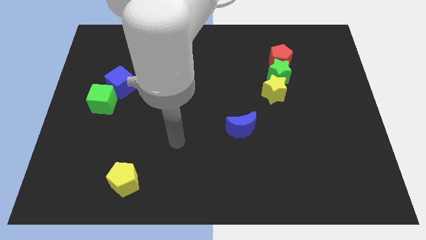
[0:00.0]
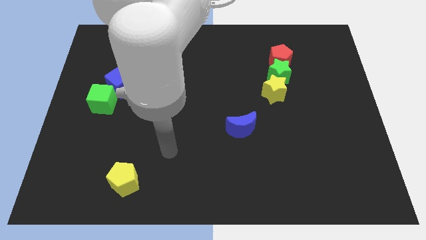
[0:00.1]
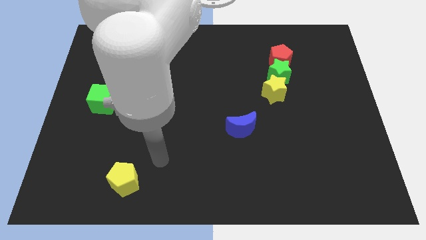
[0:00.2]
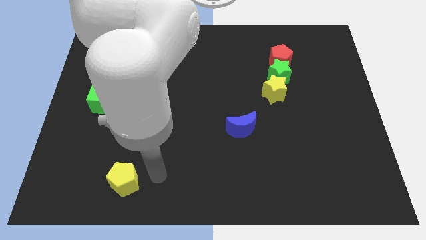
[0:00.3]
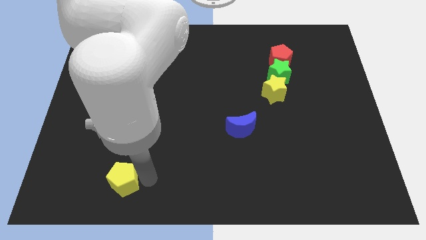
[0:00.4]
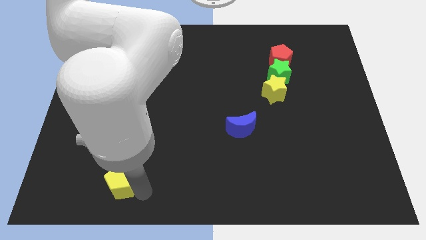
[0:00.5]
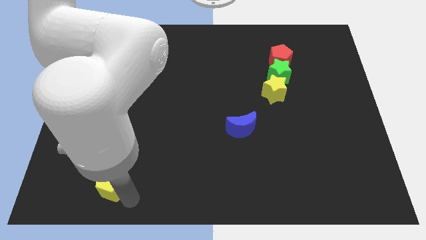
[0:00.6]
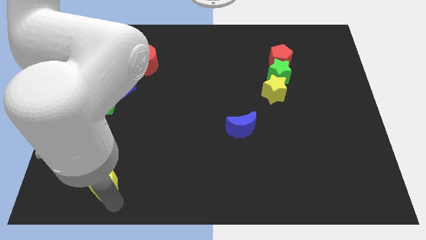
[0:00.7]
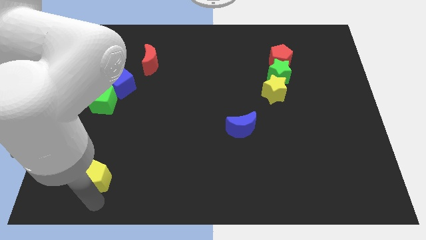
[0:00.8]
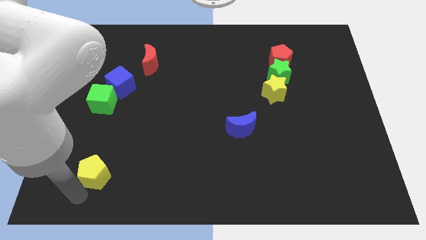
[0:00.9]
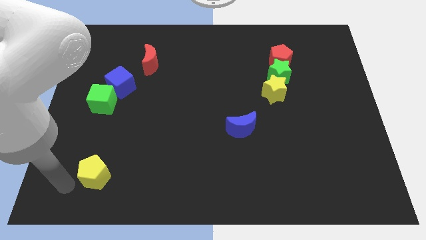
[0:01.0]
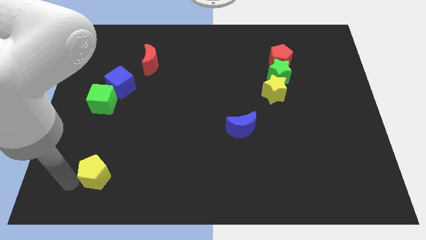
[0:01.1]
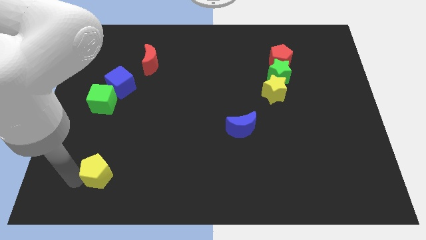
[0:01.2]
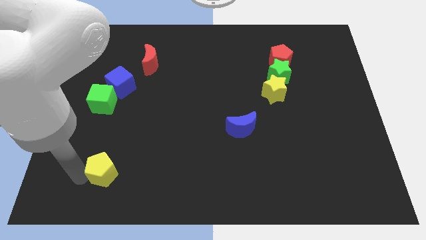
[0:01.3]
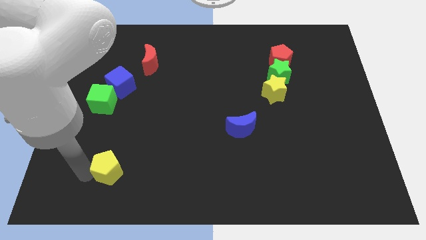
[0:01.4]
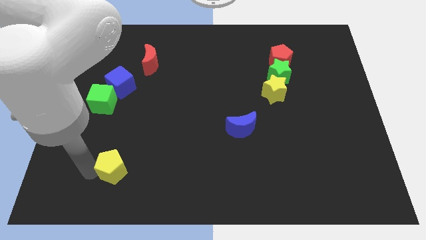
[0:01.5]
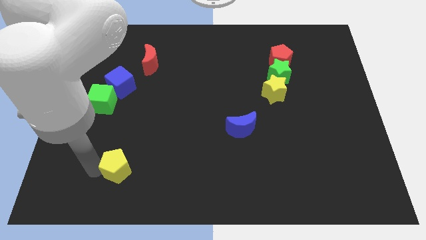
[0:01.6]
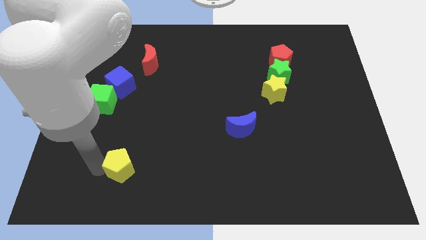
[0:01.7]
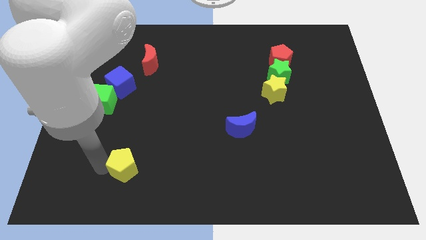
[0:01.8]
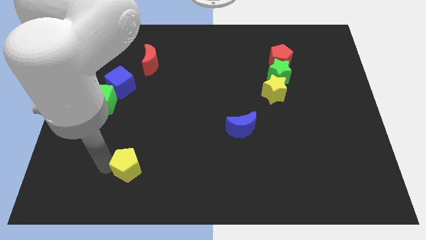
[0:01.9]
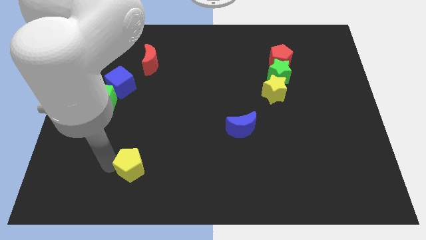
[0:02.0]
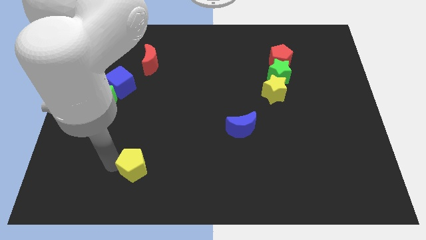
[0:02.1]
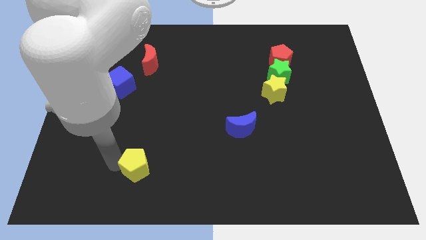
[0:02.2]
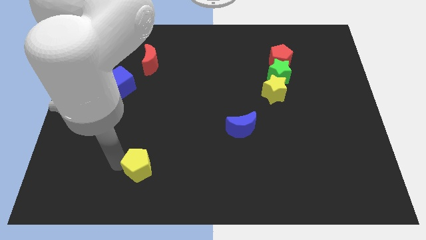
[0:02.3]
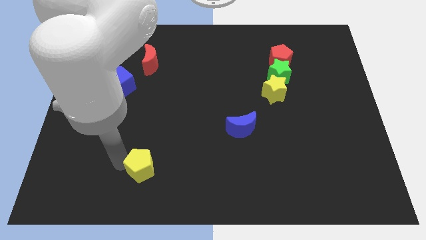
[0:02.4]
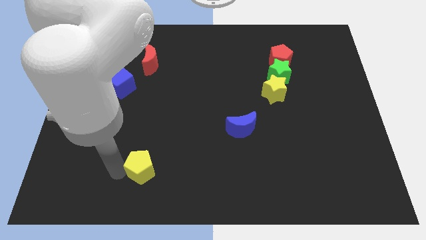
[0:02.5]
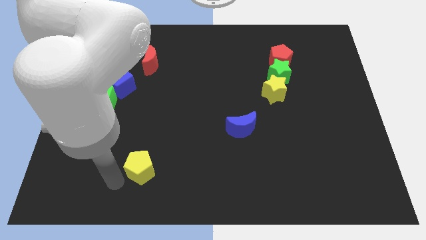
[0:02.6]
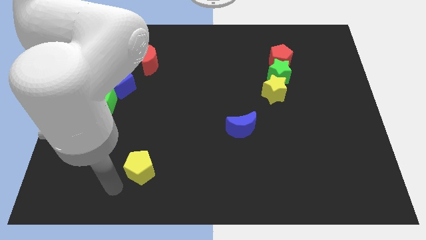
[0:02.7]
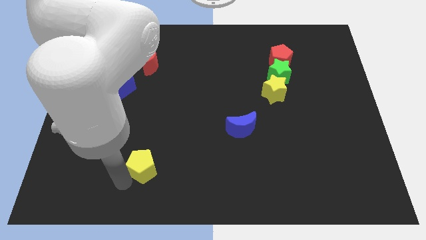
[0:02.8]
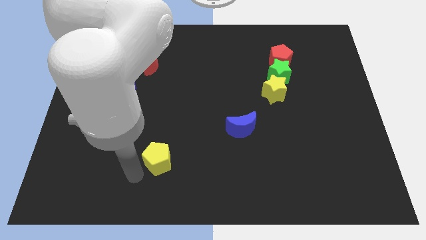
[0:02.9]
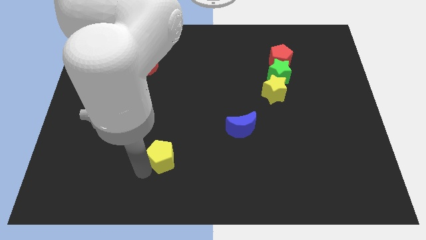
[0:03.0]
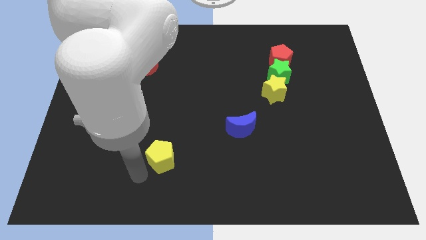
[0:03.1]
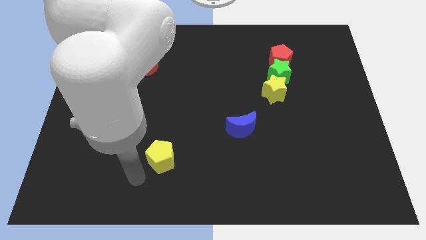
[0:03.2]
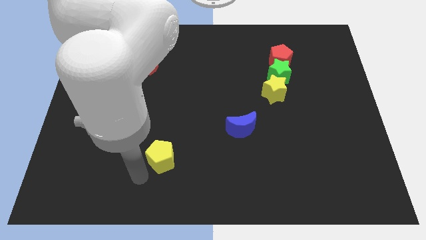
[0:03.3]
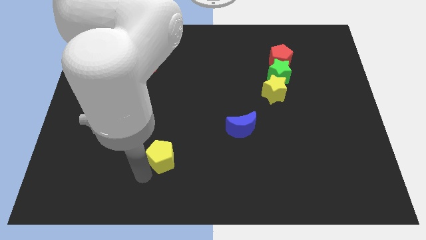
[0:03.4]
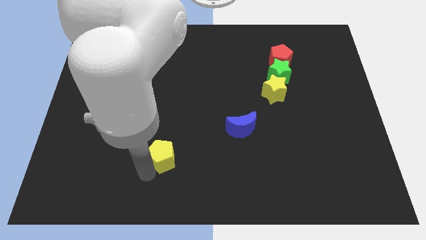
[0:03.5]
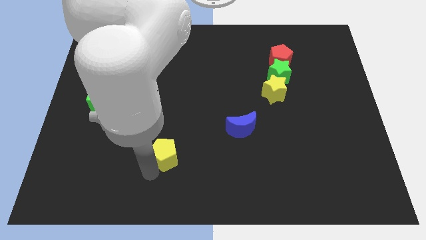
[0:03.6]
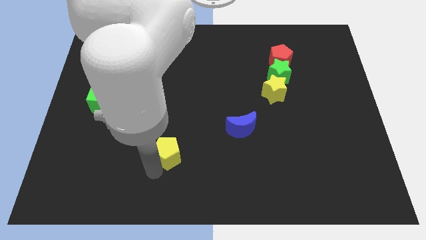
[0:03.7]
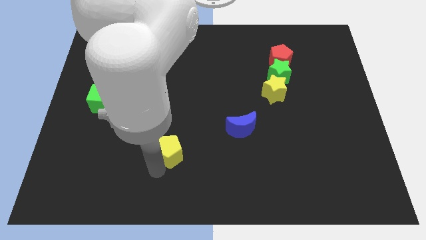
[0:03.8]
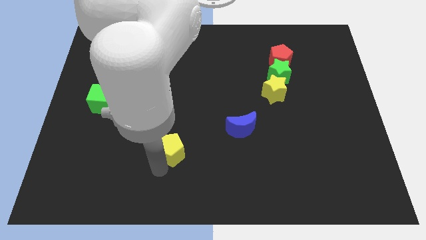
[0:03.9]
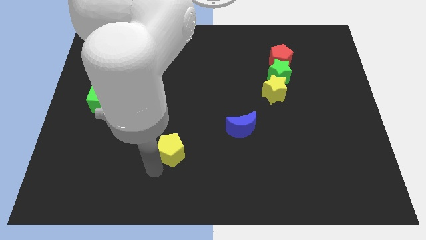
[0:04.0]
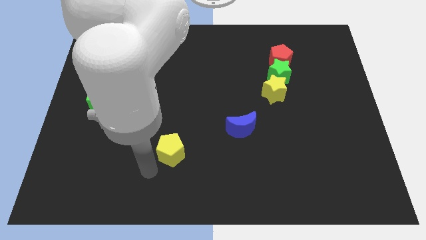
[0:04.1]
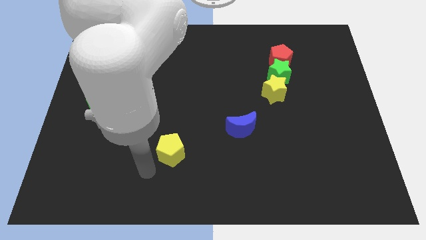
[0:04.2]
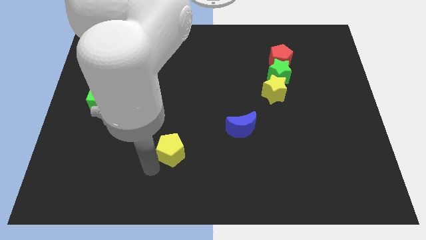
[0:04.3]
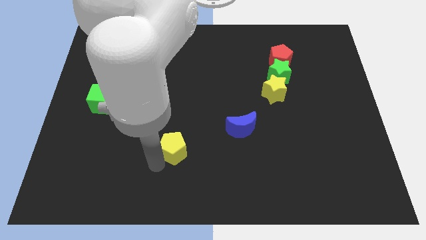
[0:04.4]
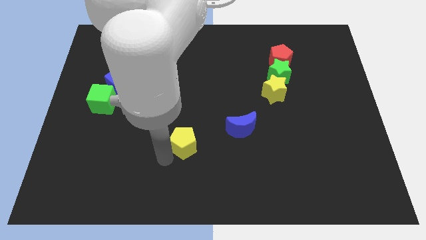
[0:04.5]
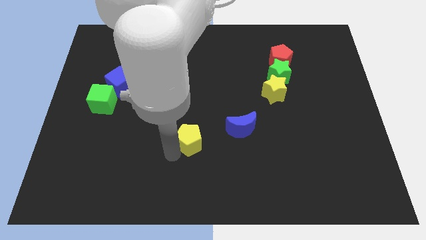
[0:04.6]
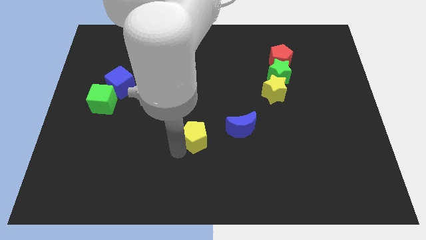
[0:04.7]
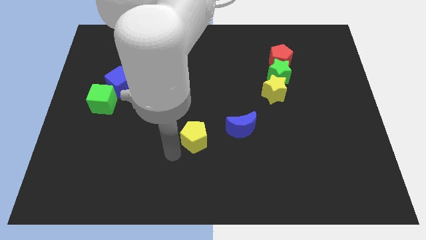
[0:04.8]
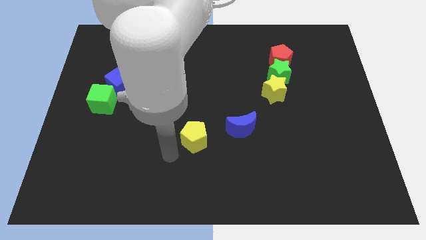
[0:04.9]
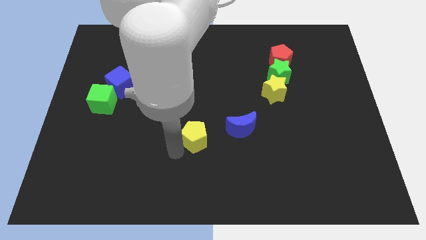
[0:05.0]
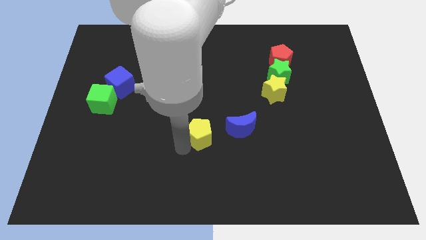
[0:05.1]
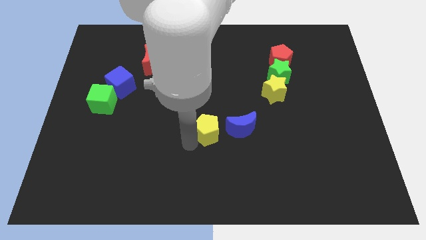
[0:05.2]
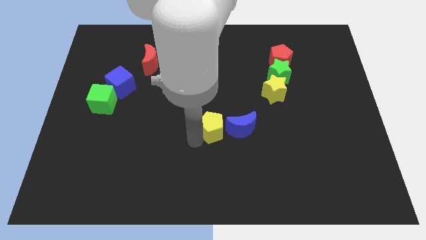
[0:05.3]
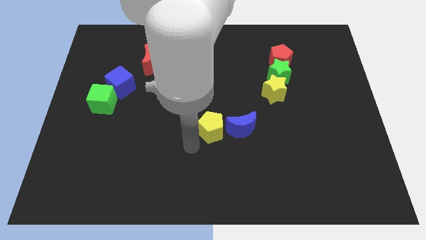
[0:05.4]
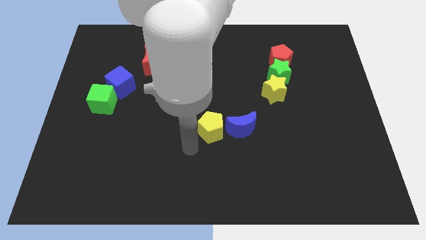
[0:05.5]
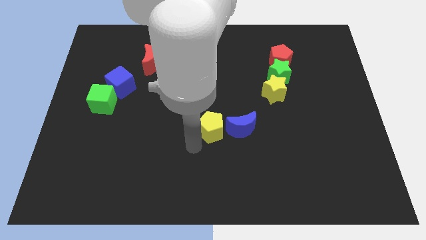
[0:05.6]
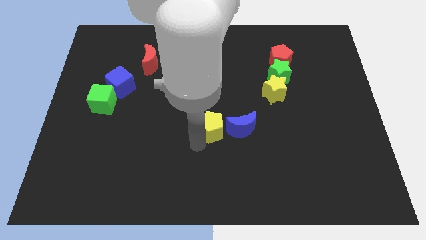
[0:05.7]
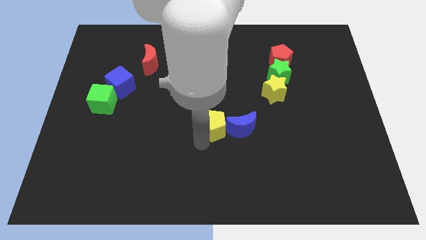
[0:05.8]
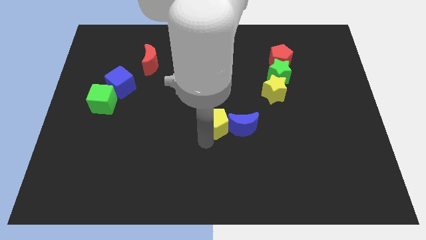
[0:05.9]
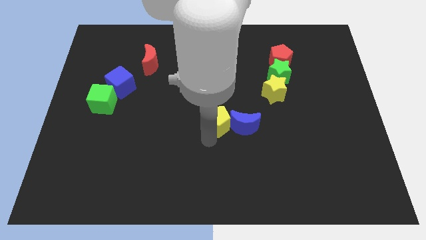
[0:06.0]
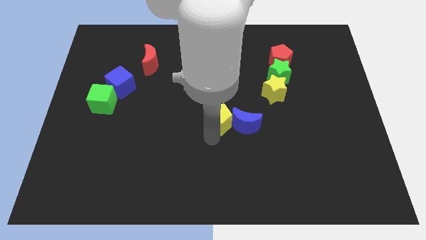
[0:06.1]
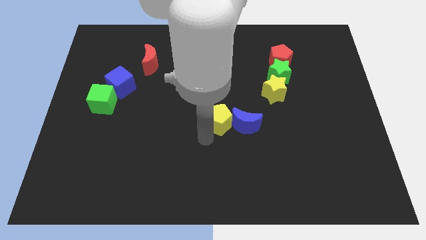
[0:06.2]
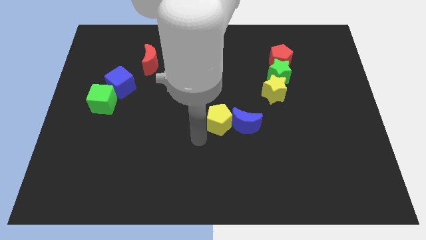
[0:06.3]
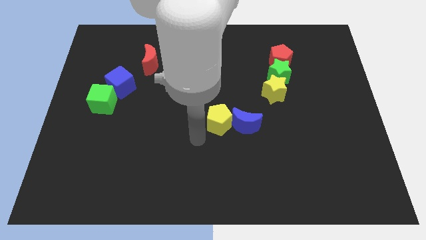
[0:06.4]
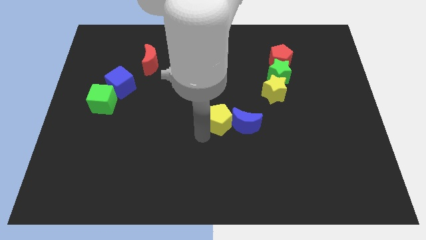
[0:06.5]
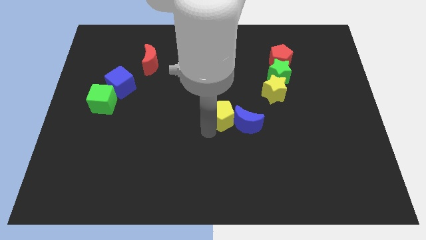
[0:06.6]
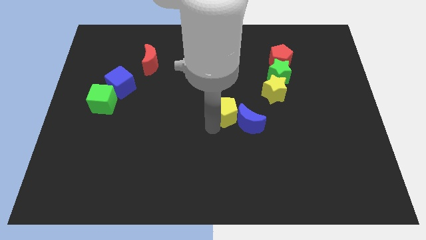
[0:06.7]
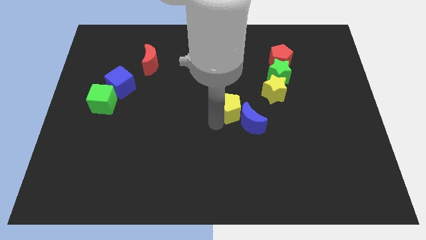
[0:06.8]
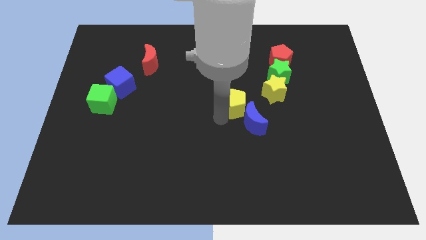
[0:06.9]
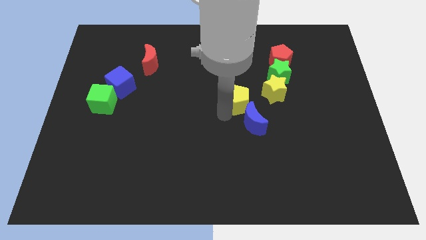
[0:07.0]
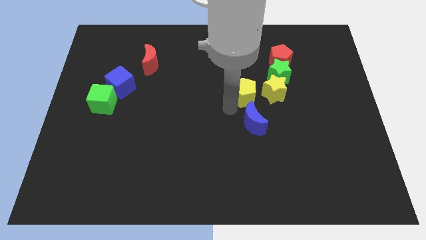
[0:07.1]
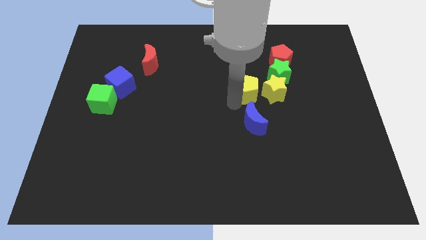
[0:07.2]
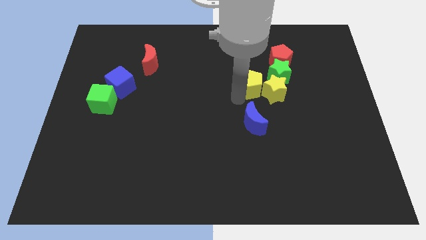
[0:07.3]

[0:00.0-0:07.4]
move the yellow pentagon towards the yellow star

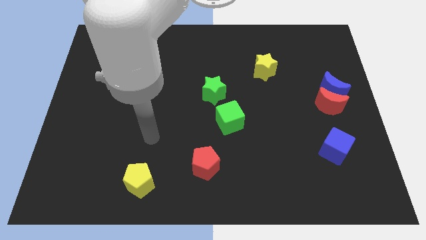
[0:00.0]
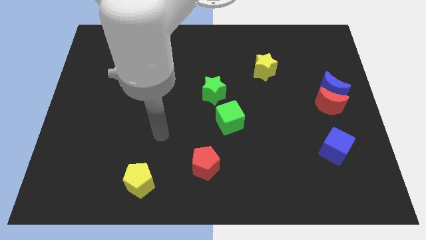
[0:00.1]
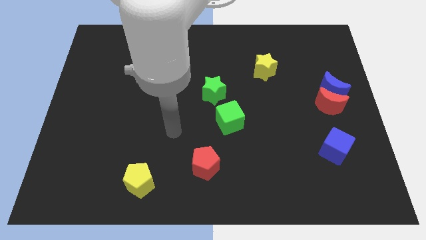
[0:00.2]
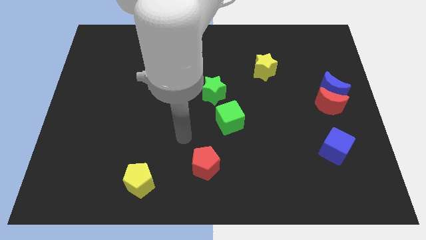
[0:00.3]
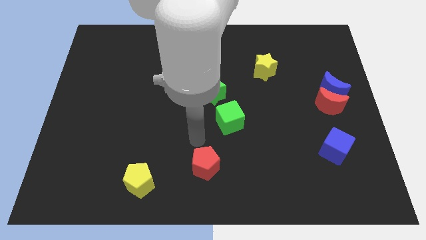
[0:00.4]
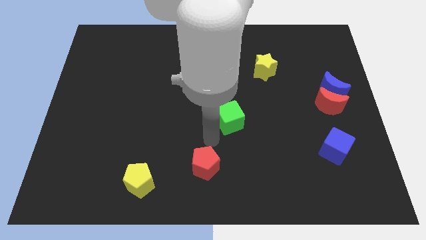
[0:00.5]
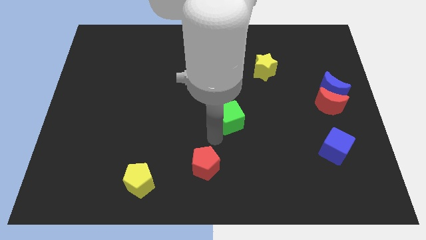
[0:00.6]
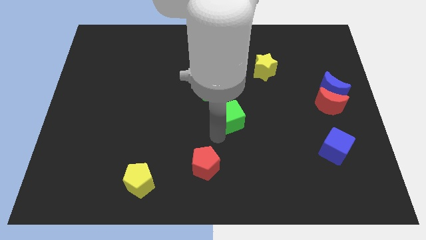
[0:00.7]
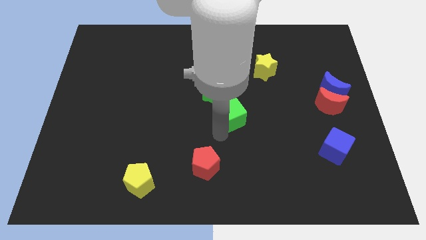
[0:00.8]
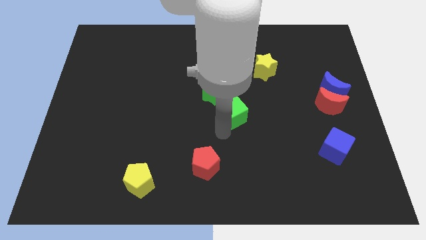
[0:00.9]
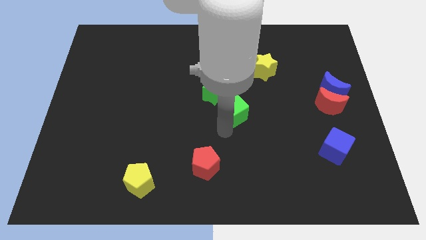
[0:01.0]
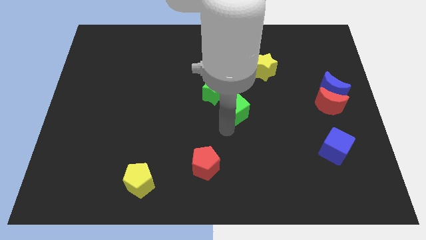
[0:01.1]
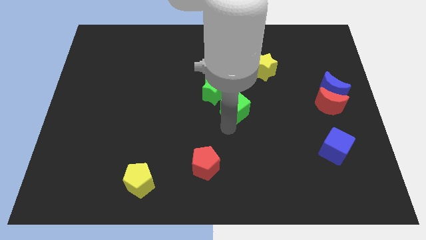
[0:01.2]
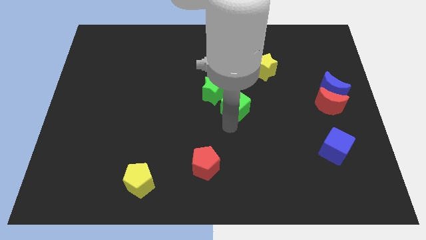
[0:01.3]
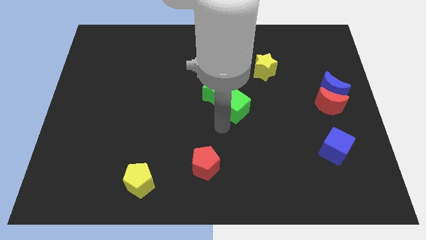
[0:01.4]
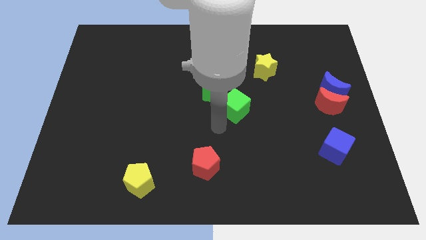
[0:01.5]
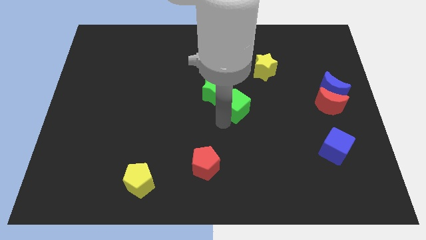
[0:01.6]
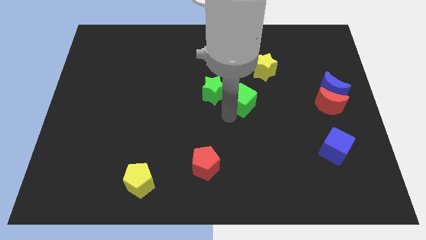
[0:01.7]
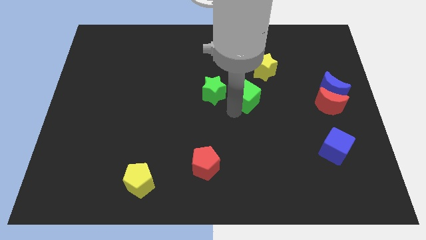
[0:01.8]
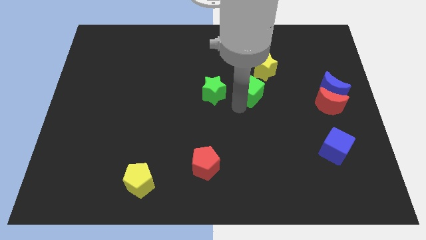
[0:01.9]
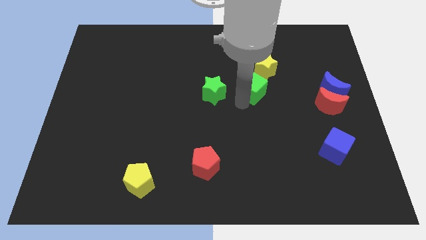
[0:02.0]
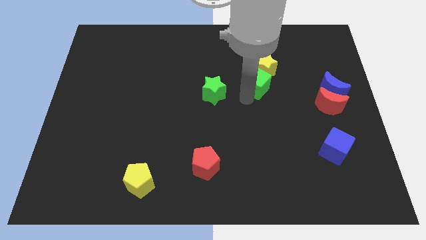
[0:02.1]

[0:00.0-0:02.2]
push the green cube next to the yellow star
